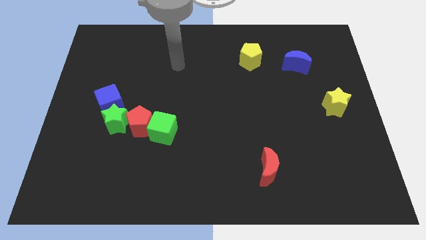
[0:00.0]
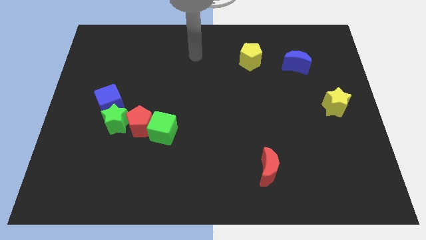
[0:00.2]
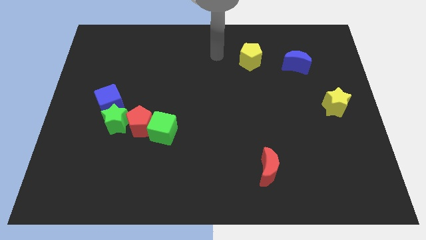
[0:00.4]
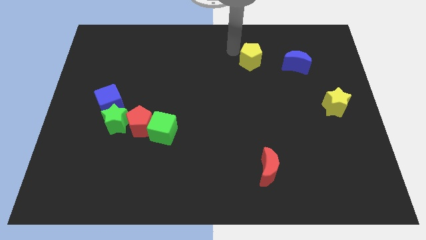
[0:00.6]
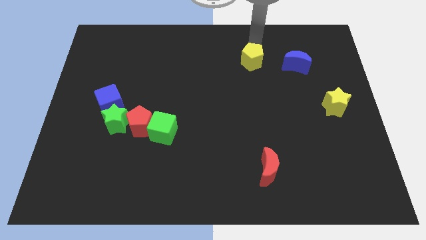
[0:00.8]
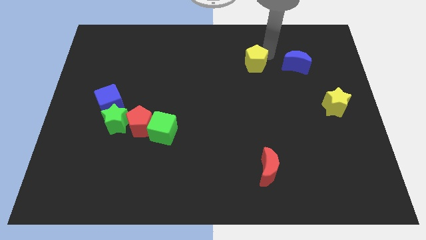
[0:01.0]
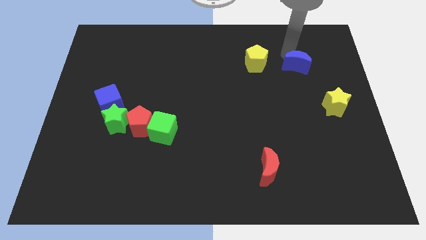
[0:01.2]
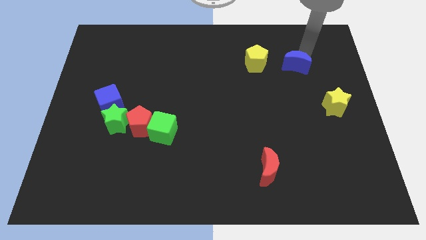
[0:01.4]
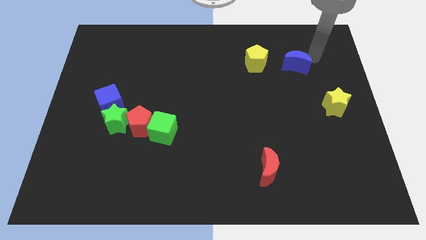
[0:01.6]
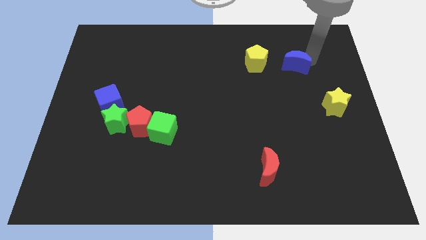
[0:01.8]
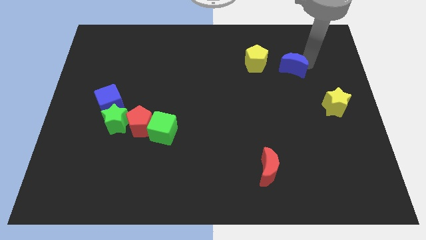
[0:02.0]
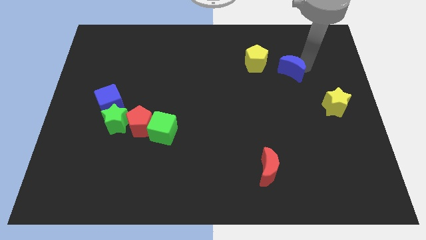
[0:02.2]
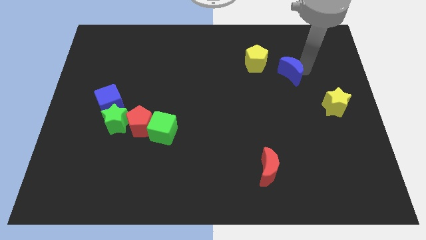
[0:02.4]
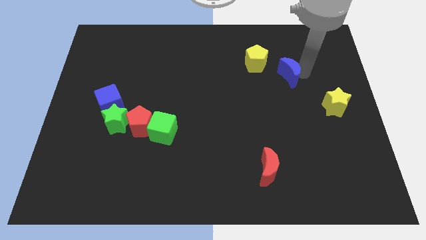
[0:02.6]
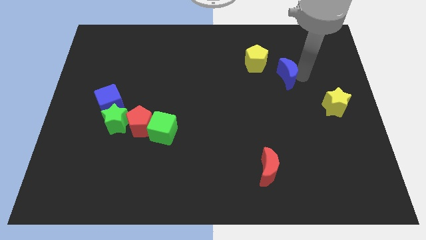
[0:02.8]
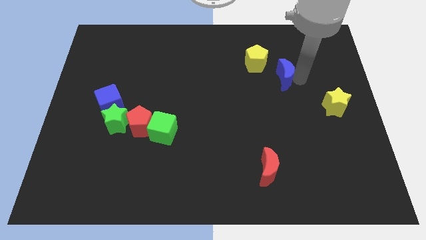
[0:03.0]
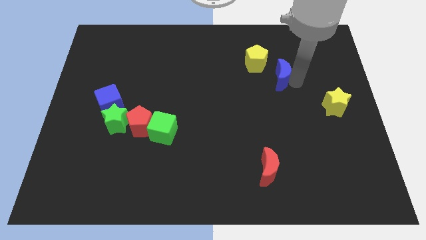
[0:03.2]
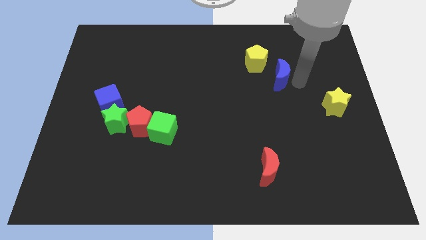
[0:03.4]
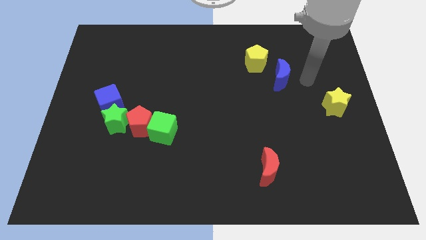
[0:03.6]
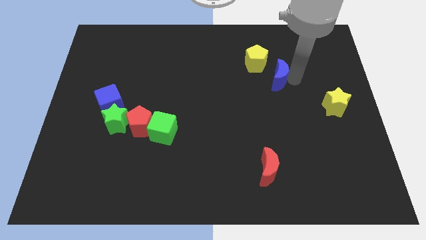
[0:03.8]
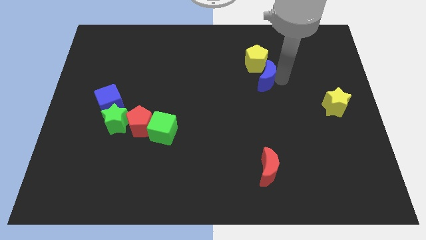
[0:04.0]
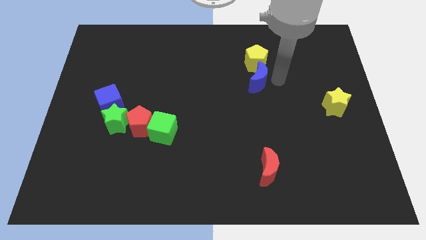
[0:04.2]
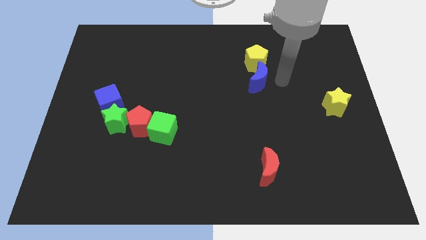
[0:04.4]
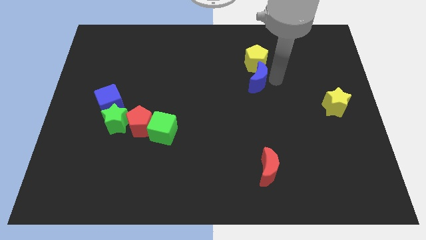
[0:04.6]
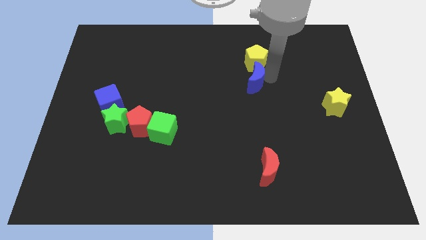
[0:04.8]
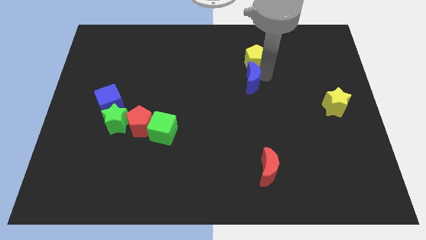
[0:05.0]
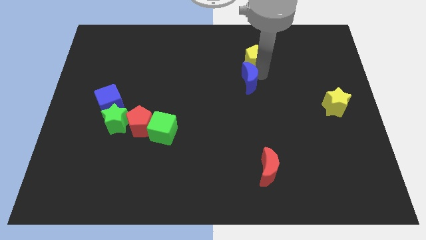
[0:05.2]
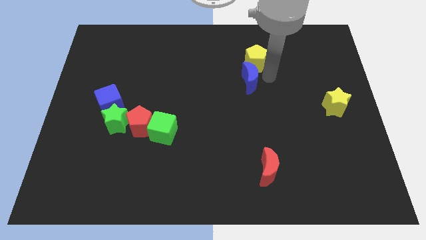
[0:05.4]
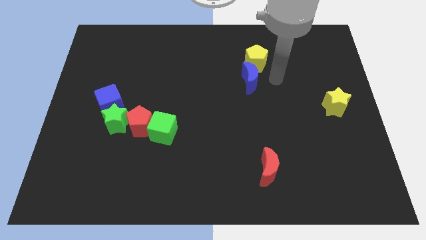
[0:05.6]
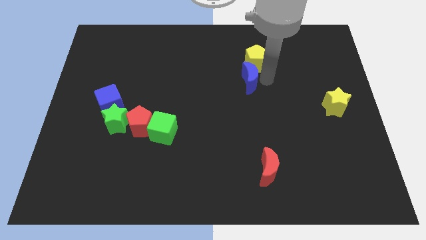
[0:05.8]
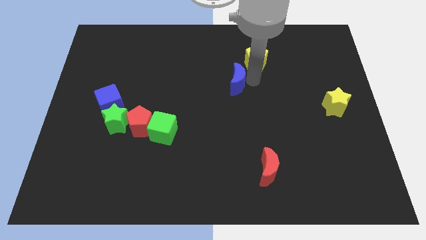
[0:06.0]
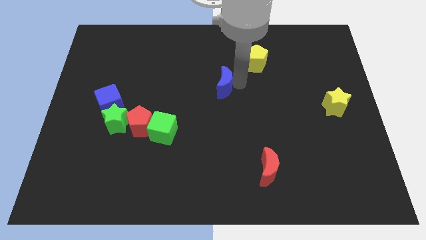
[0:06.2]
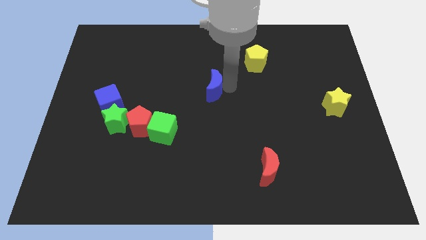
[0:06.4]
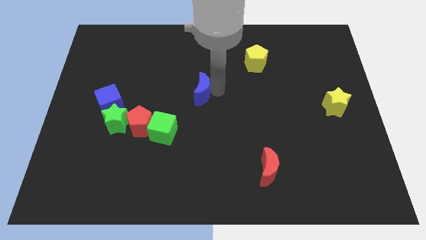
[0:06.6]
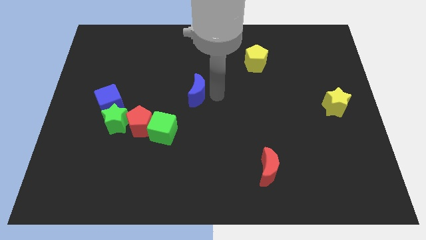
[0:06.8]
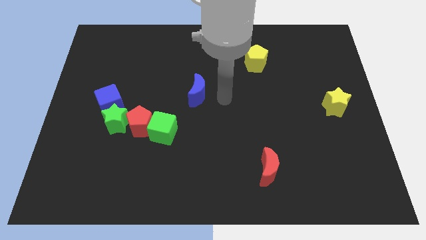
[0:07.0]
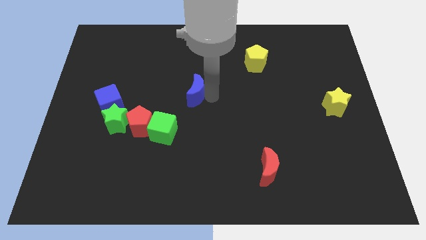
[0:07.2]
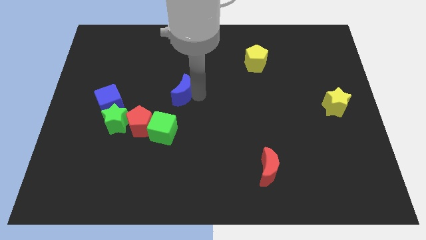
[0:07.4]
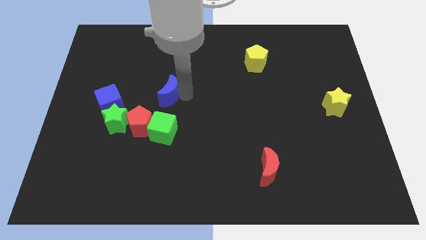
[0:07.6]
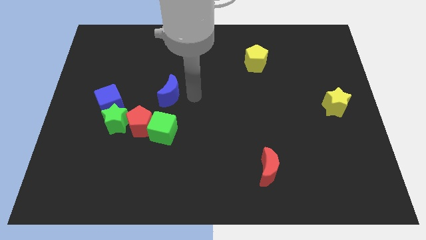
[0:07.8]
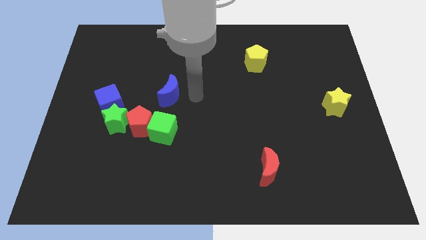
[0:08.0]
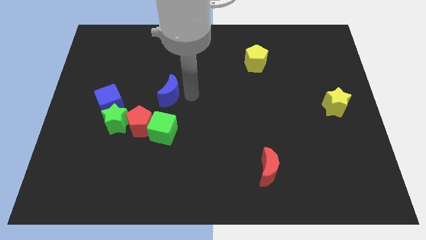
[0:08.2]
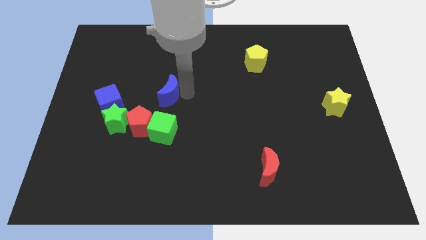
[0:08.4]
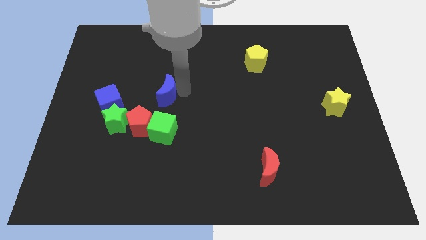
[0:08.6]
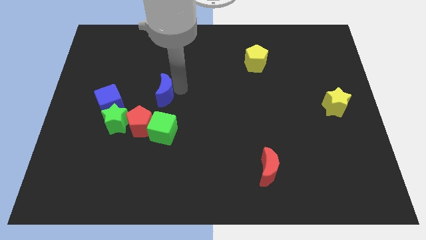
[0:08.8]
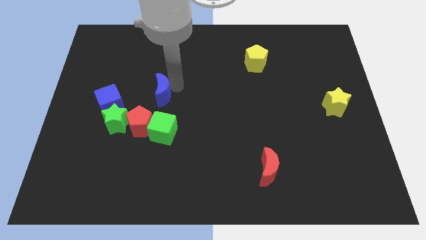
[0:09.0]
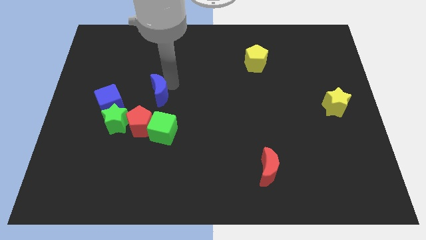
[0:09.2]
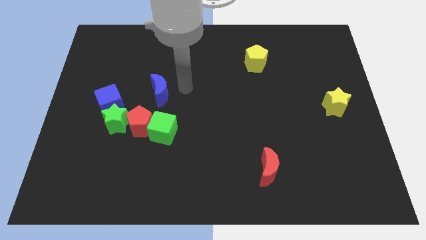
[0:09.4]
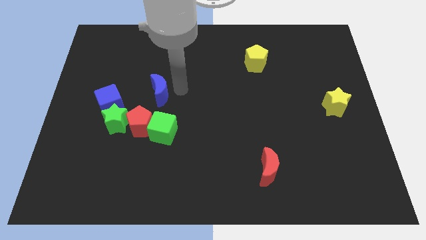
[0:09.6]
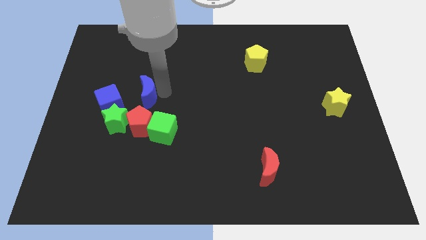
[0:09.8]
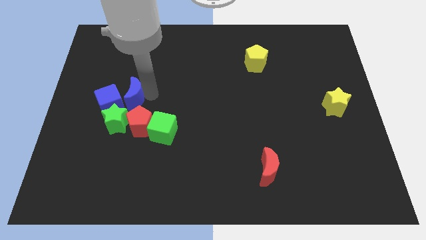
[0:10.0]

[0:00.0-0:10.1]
put the blue moon to the blue cube

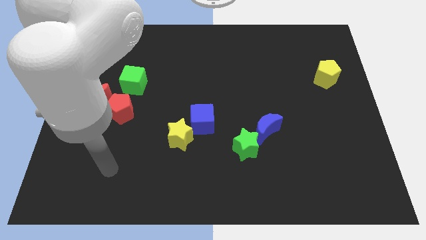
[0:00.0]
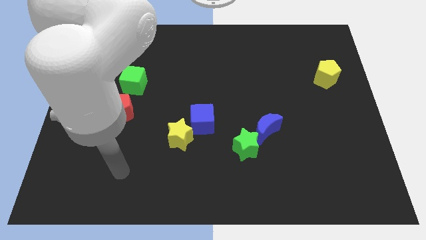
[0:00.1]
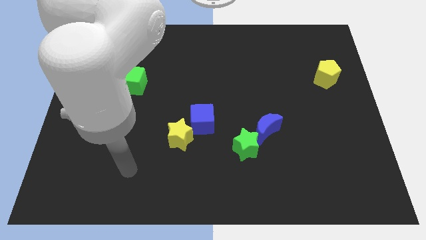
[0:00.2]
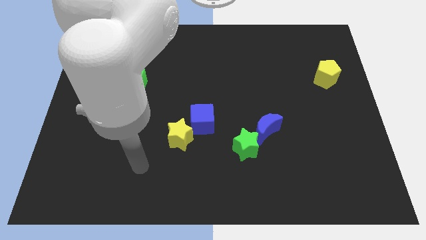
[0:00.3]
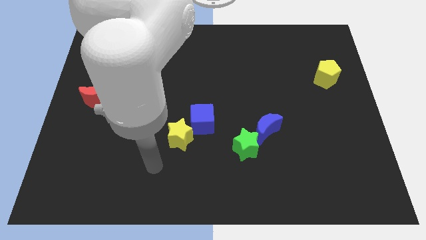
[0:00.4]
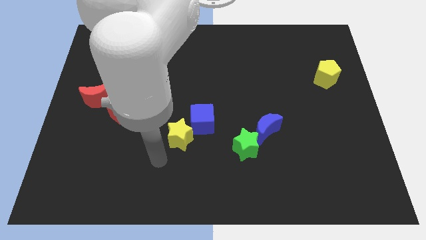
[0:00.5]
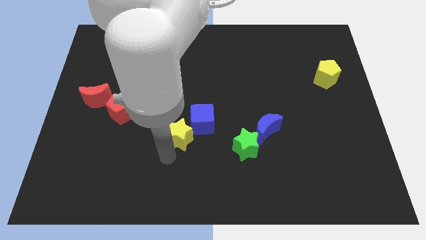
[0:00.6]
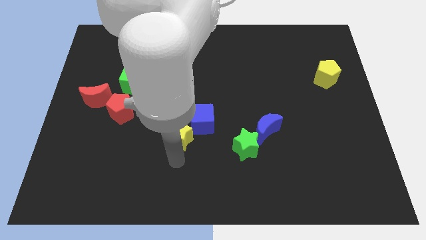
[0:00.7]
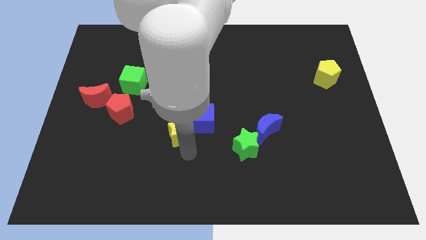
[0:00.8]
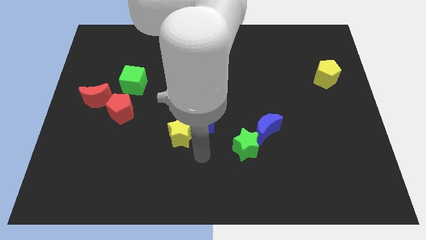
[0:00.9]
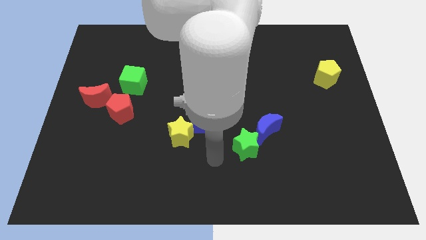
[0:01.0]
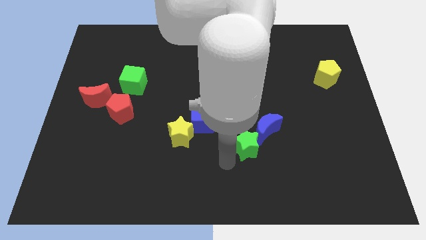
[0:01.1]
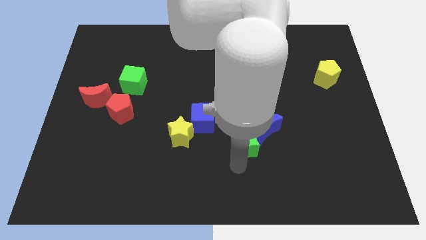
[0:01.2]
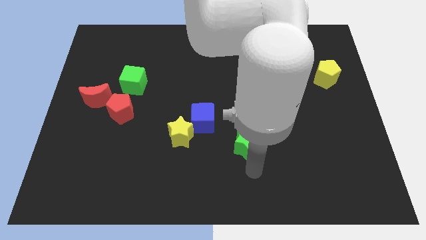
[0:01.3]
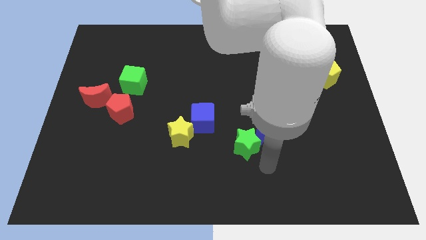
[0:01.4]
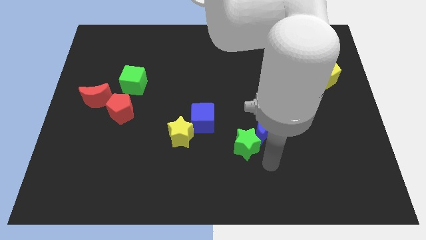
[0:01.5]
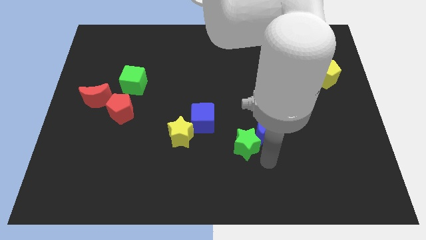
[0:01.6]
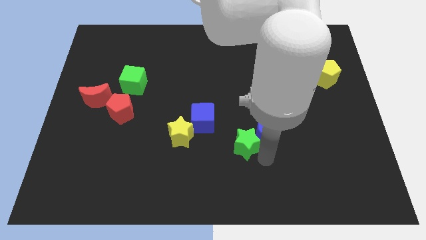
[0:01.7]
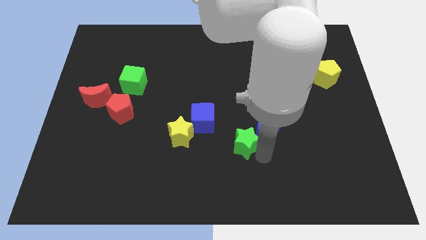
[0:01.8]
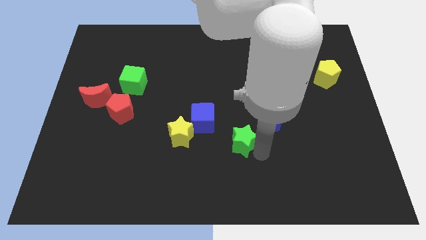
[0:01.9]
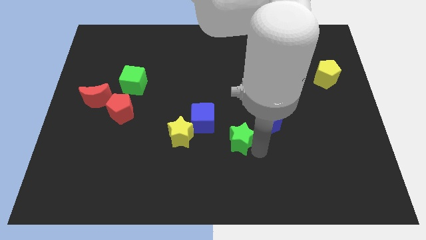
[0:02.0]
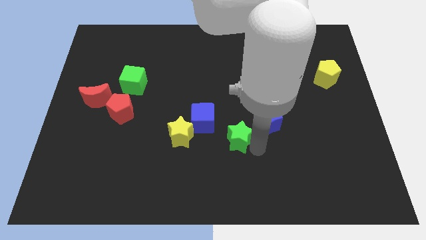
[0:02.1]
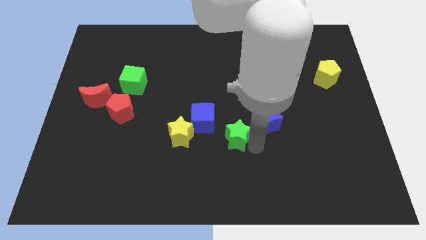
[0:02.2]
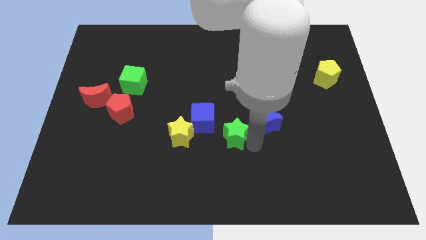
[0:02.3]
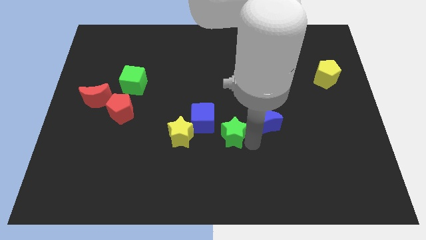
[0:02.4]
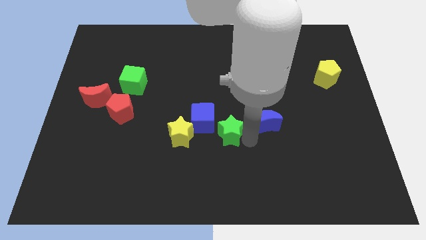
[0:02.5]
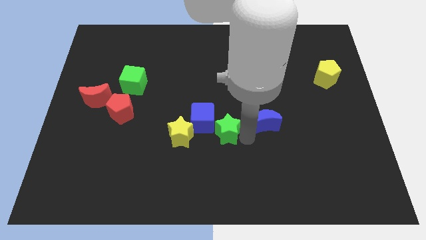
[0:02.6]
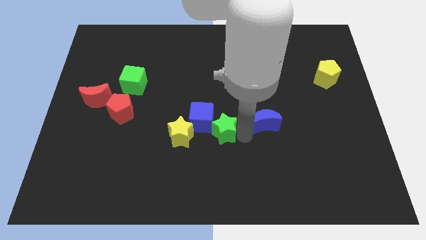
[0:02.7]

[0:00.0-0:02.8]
push the green star to the blue cube

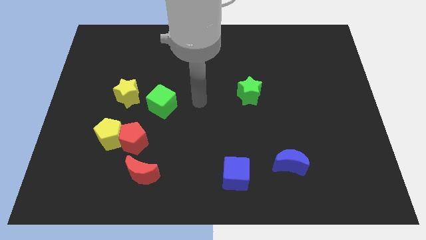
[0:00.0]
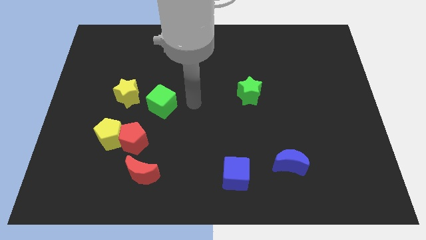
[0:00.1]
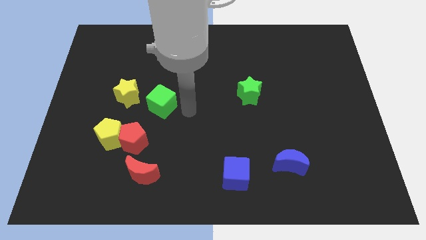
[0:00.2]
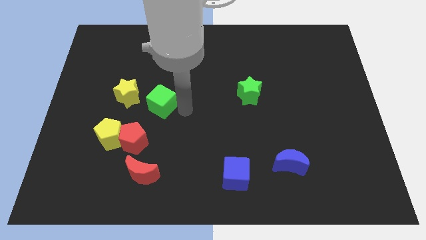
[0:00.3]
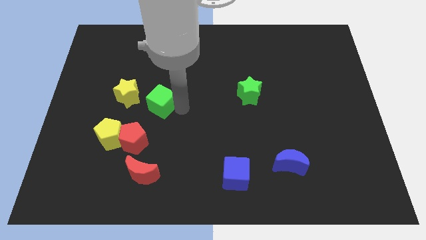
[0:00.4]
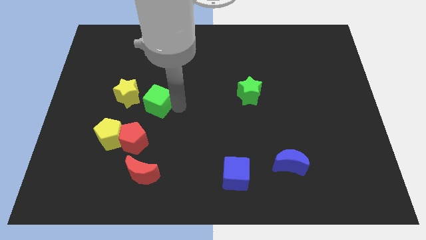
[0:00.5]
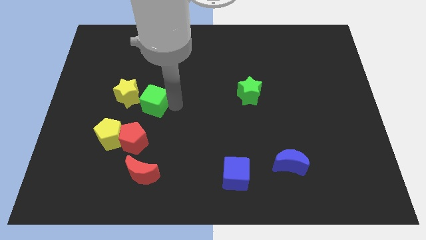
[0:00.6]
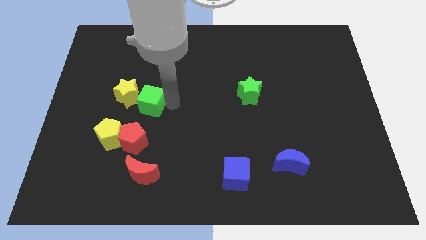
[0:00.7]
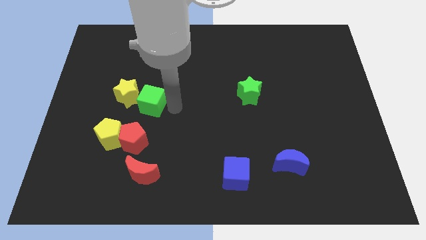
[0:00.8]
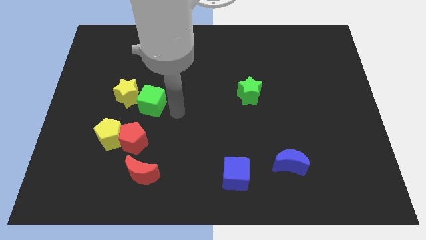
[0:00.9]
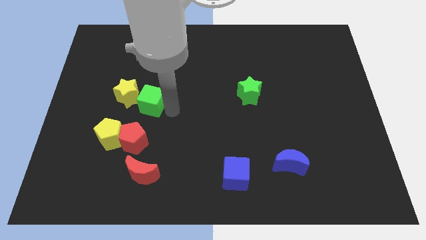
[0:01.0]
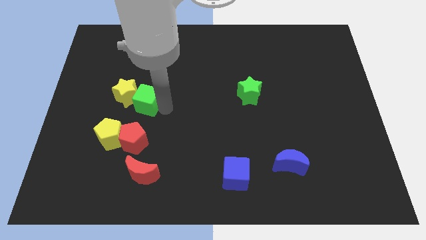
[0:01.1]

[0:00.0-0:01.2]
put the green cube to the yellow star
